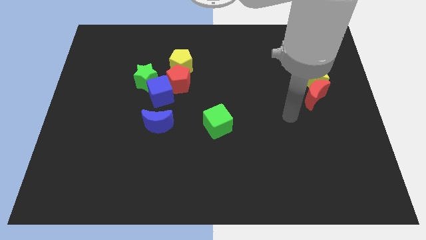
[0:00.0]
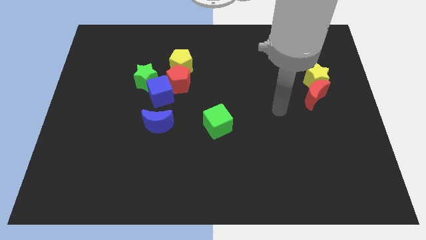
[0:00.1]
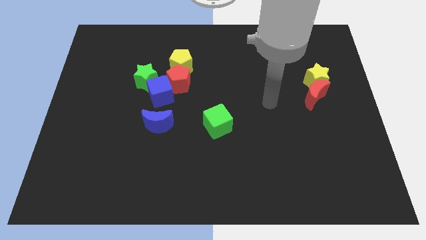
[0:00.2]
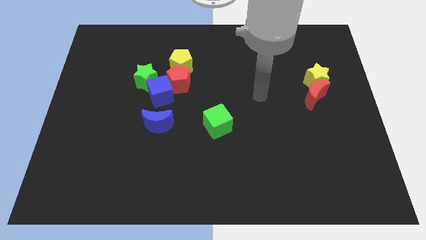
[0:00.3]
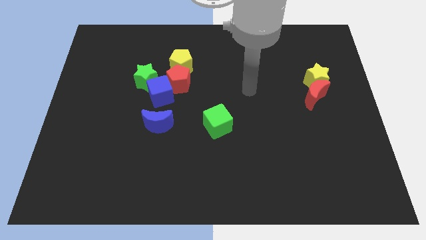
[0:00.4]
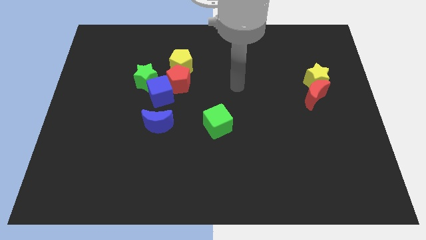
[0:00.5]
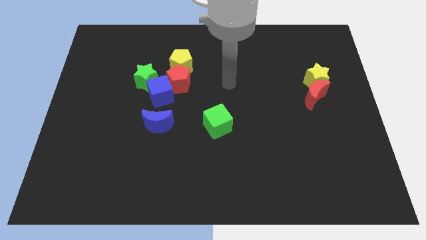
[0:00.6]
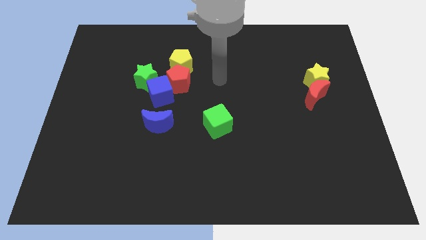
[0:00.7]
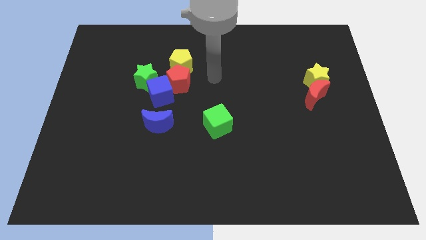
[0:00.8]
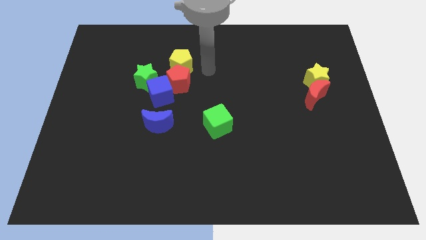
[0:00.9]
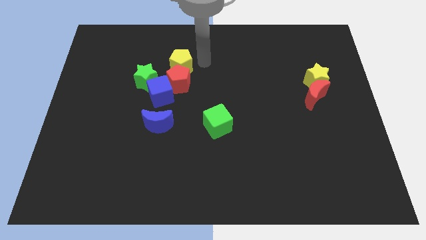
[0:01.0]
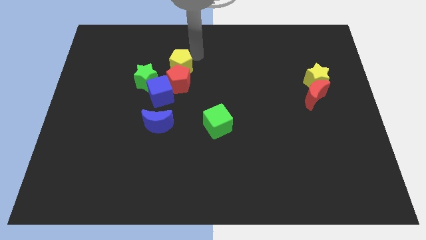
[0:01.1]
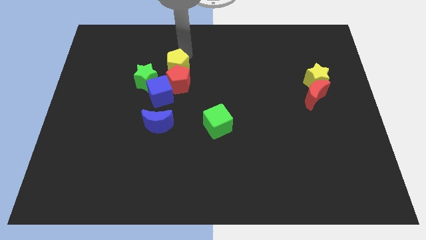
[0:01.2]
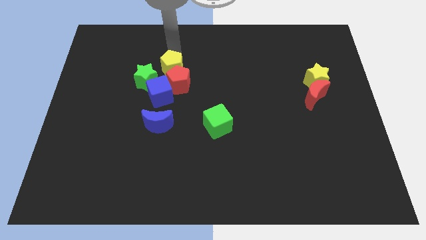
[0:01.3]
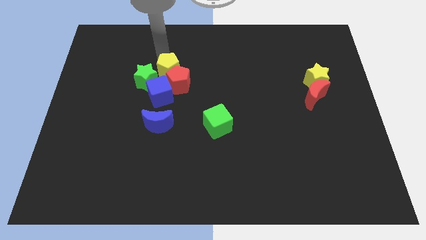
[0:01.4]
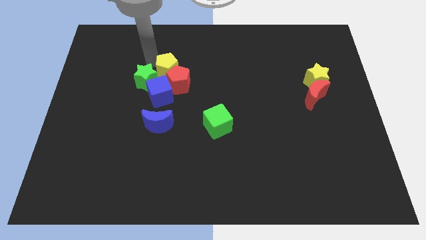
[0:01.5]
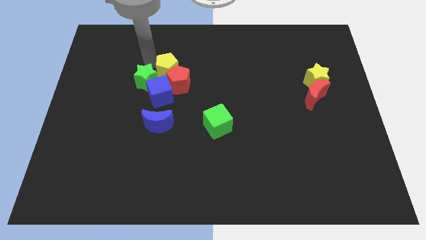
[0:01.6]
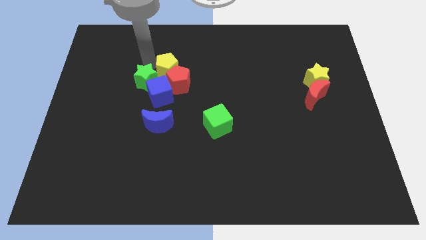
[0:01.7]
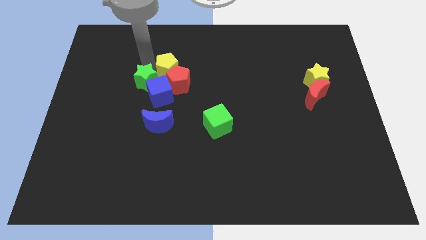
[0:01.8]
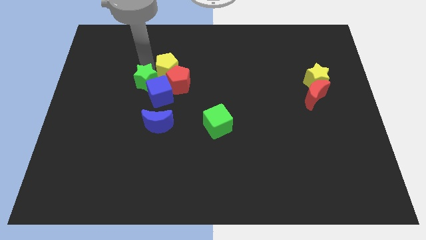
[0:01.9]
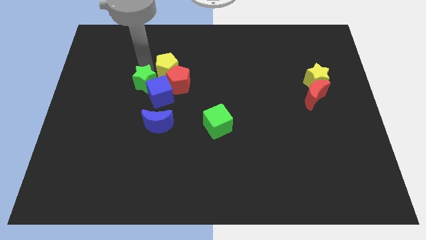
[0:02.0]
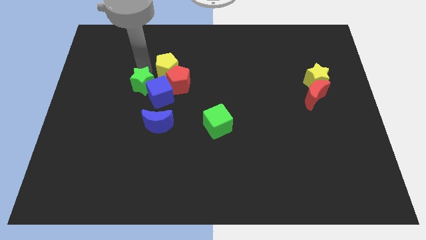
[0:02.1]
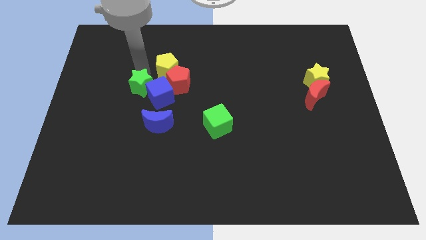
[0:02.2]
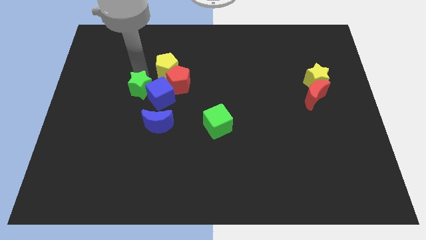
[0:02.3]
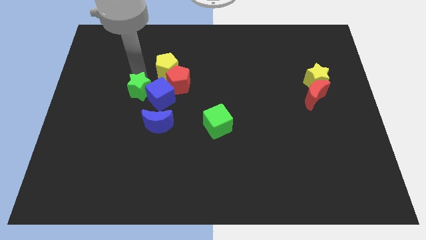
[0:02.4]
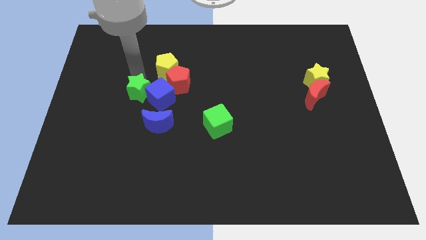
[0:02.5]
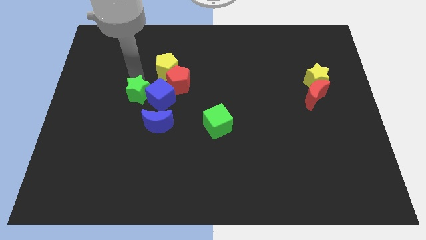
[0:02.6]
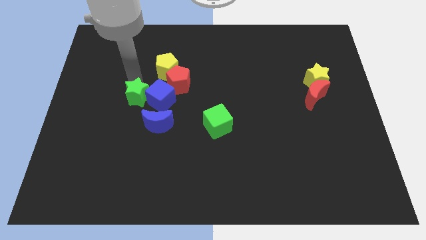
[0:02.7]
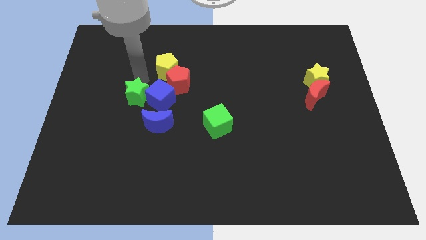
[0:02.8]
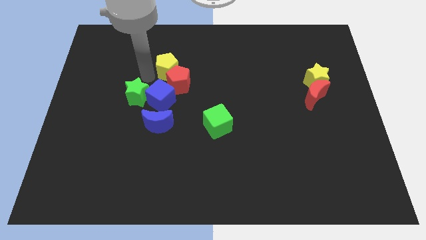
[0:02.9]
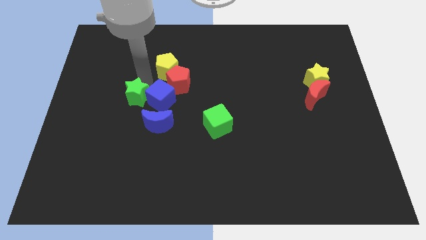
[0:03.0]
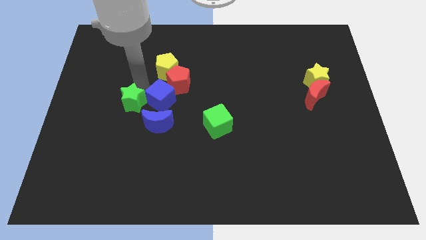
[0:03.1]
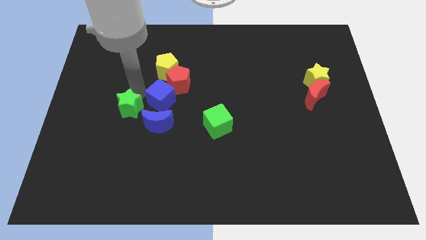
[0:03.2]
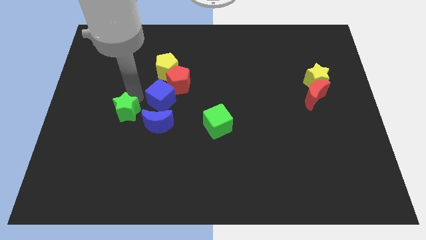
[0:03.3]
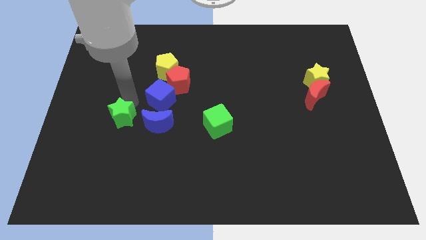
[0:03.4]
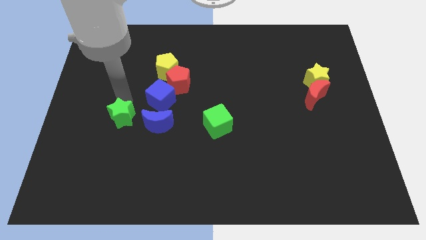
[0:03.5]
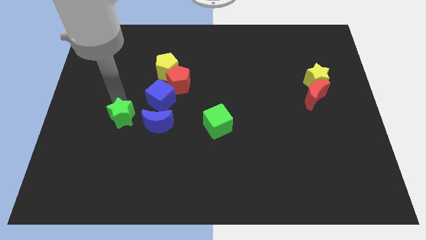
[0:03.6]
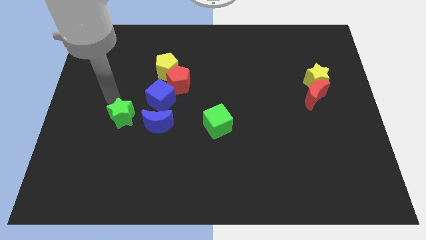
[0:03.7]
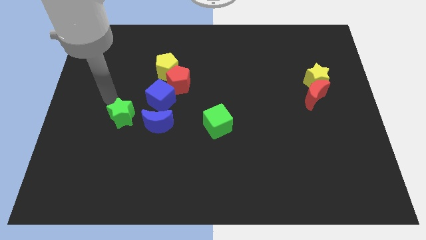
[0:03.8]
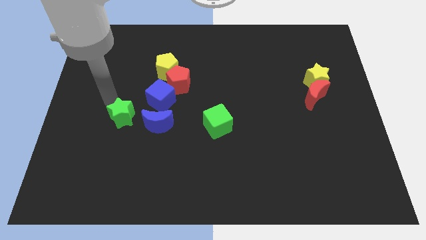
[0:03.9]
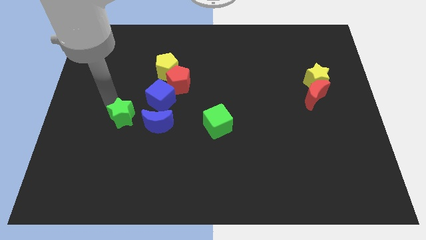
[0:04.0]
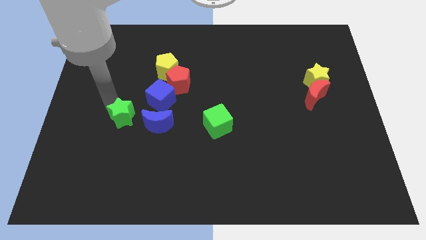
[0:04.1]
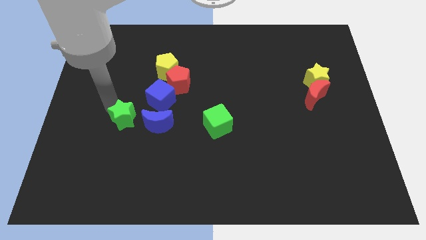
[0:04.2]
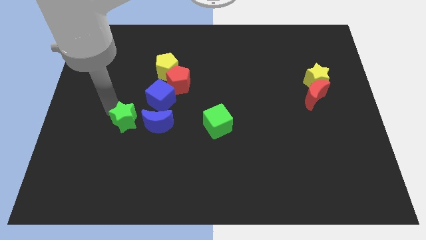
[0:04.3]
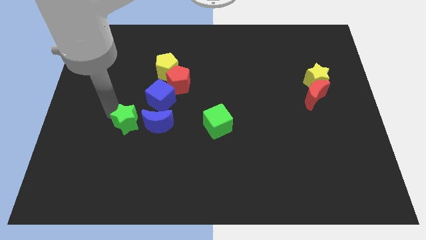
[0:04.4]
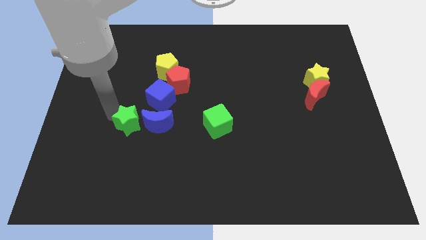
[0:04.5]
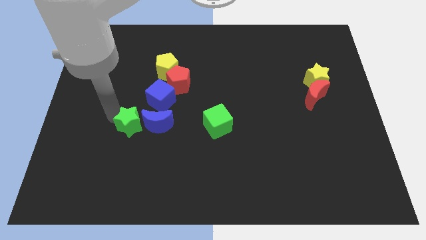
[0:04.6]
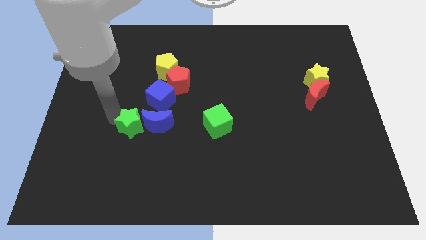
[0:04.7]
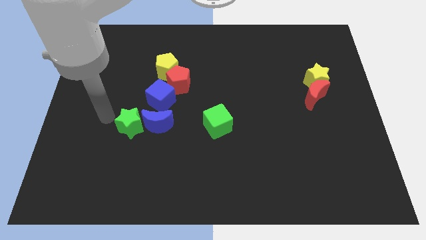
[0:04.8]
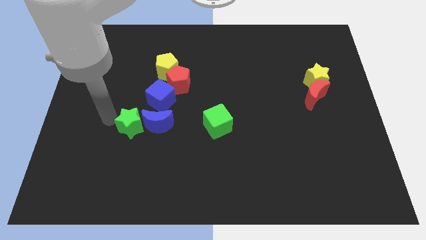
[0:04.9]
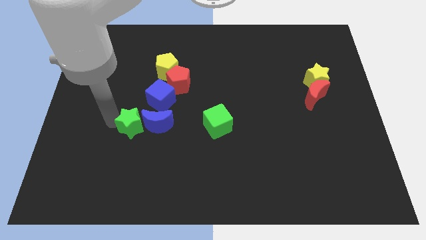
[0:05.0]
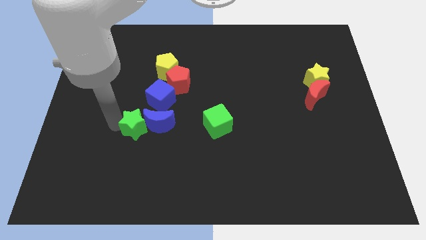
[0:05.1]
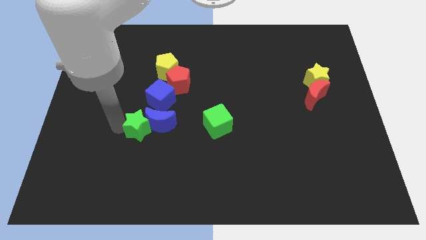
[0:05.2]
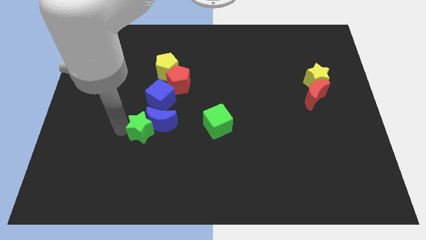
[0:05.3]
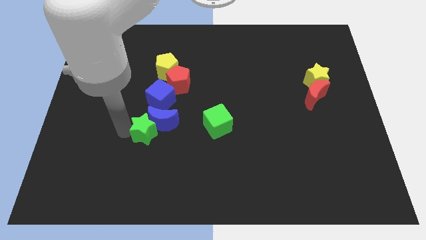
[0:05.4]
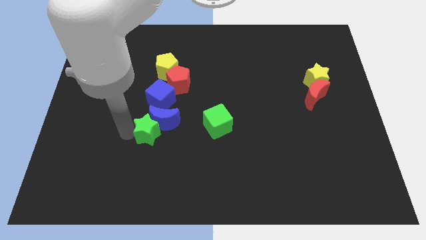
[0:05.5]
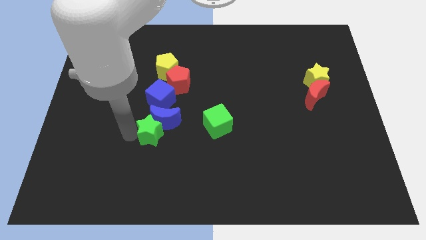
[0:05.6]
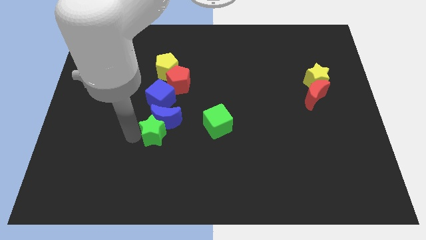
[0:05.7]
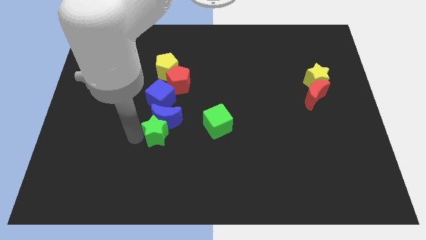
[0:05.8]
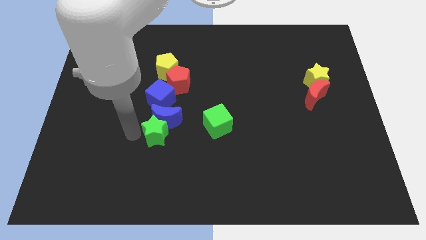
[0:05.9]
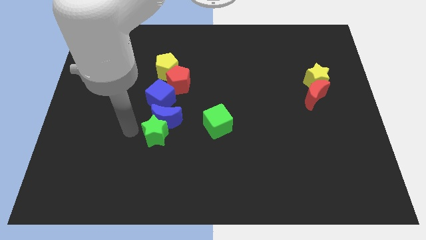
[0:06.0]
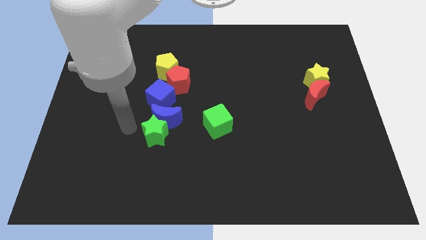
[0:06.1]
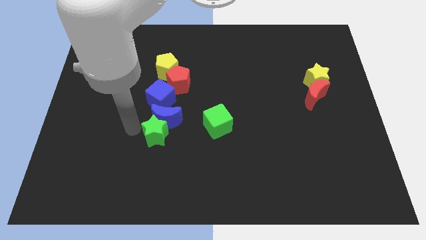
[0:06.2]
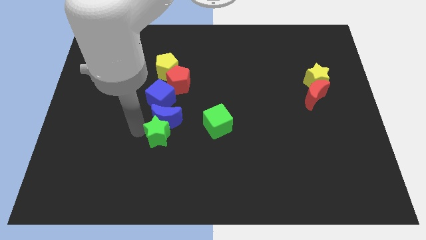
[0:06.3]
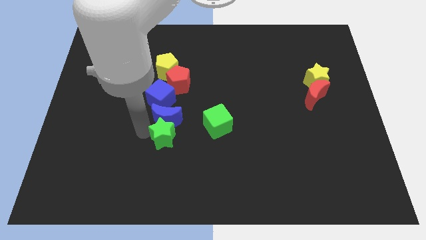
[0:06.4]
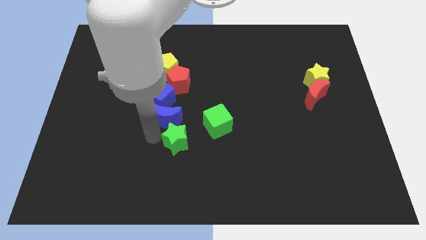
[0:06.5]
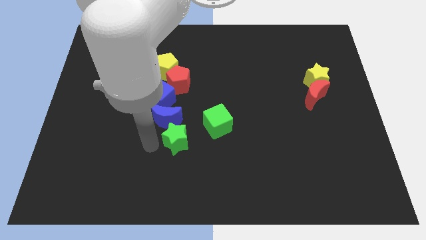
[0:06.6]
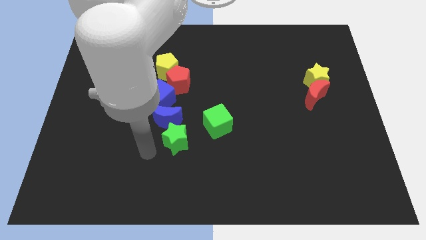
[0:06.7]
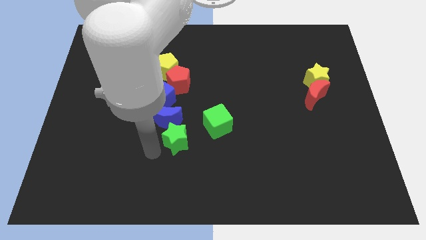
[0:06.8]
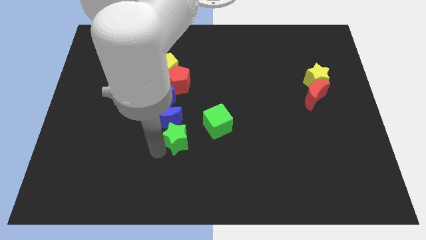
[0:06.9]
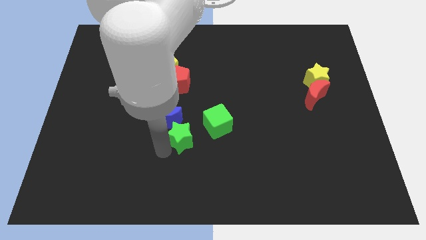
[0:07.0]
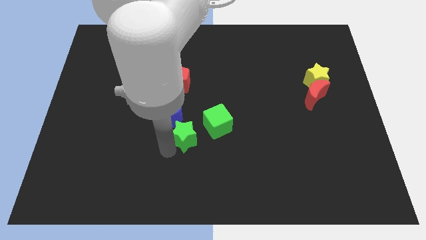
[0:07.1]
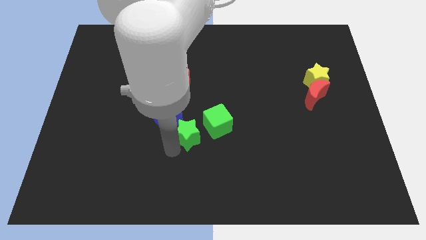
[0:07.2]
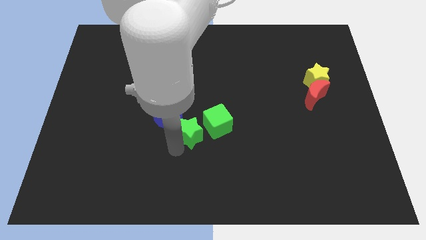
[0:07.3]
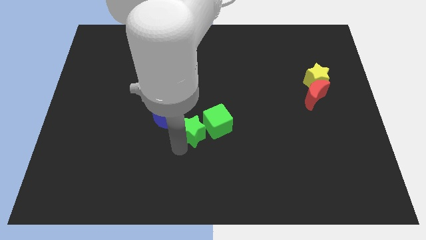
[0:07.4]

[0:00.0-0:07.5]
push the green star to the green cube
